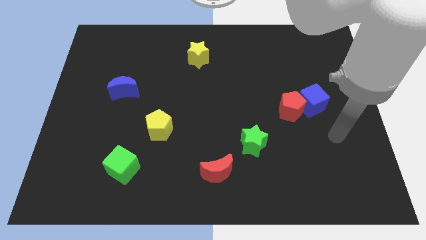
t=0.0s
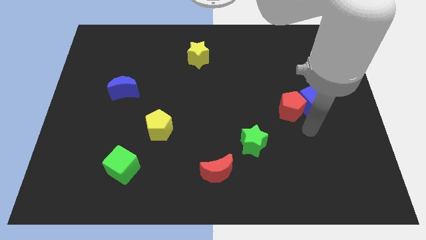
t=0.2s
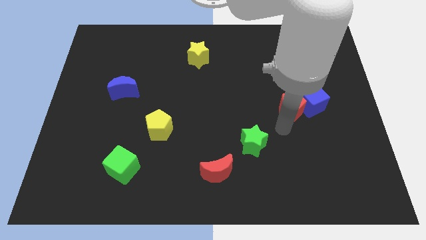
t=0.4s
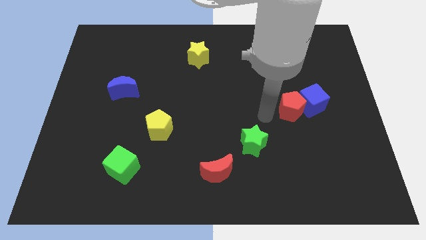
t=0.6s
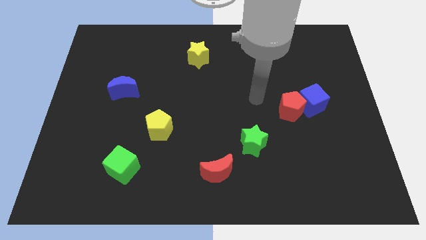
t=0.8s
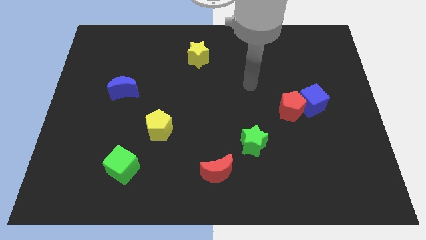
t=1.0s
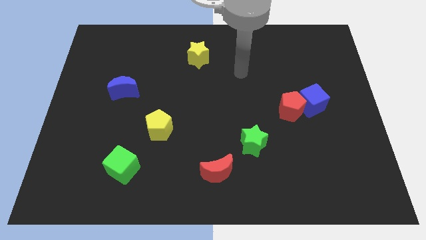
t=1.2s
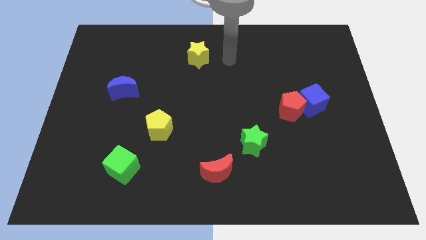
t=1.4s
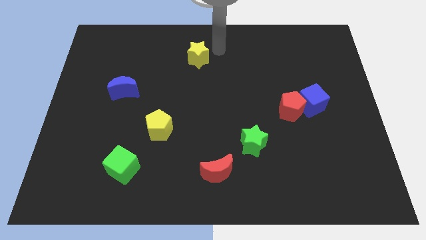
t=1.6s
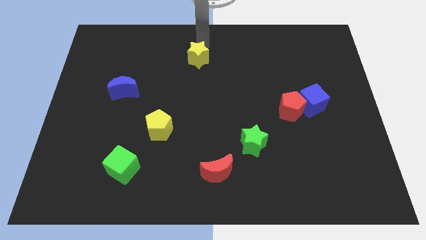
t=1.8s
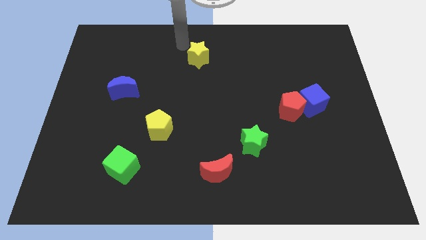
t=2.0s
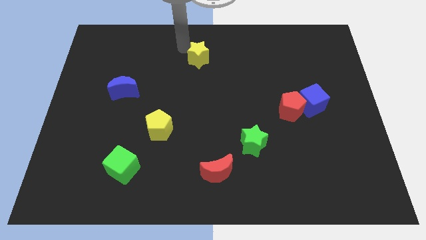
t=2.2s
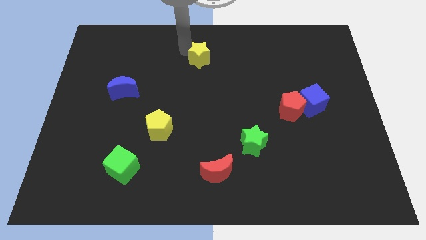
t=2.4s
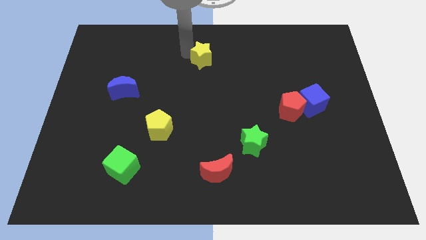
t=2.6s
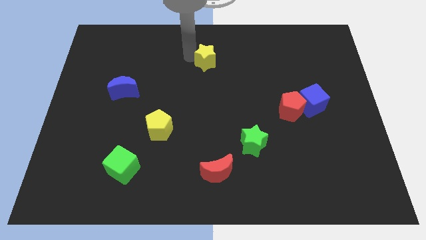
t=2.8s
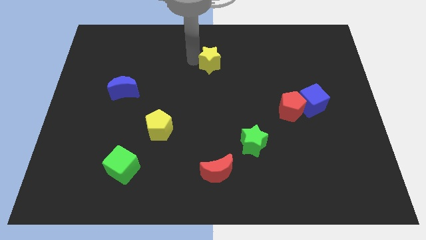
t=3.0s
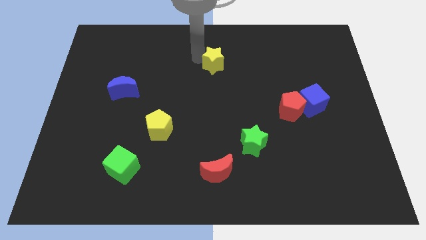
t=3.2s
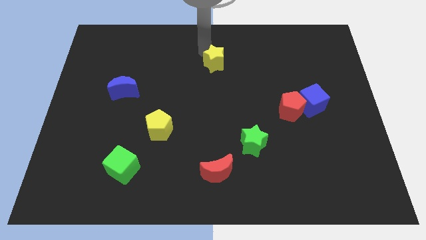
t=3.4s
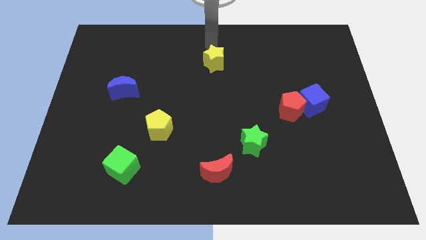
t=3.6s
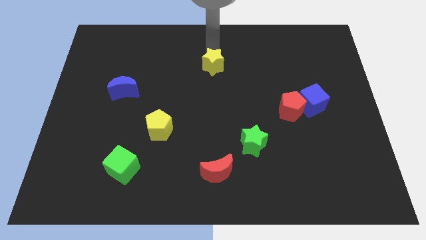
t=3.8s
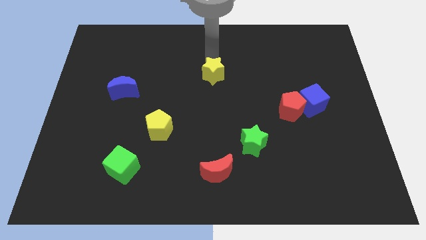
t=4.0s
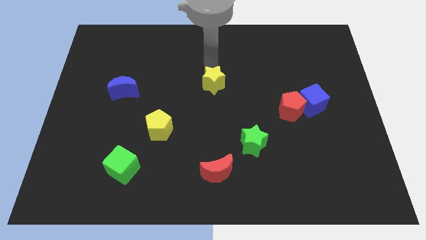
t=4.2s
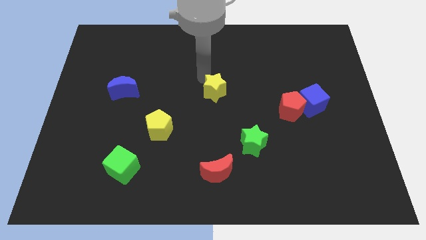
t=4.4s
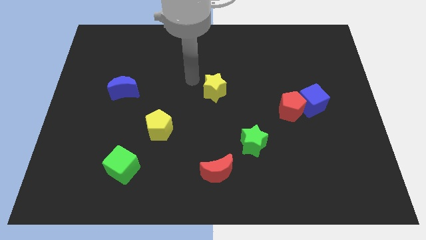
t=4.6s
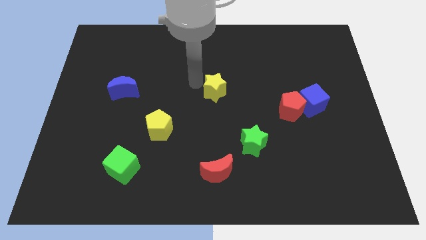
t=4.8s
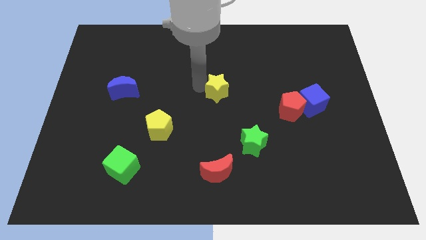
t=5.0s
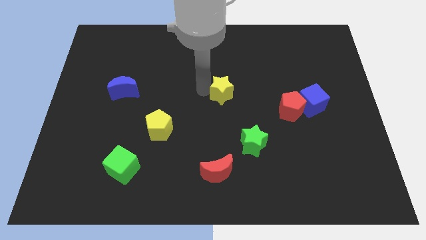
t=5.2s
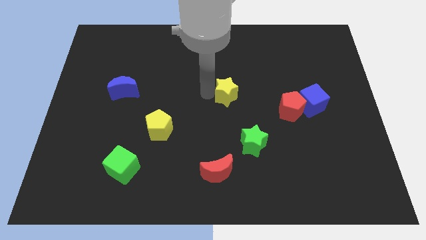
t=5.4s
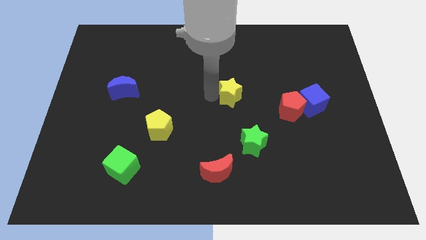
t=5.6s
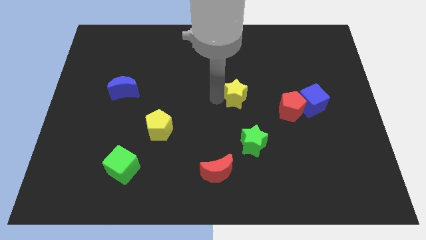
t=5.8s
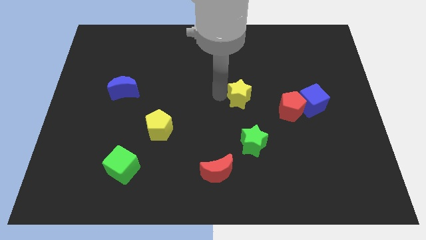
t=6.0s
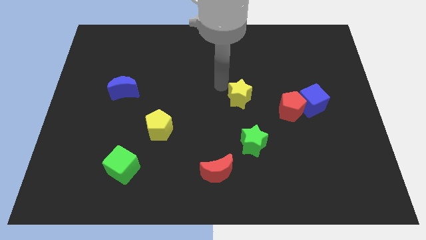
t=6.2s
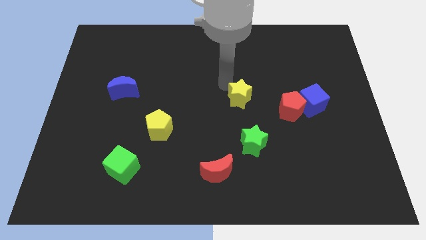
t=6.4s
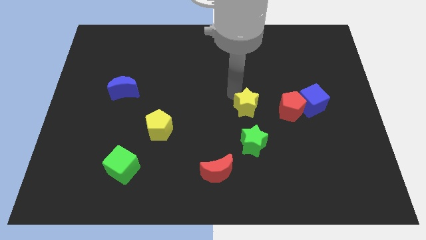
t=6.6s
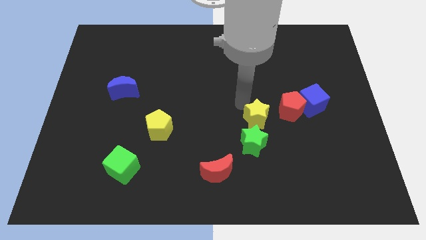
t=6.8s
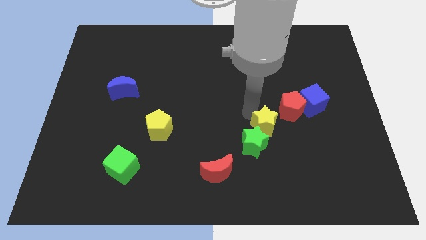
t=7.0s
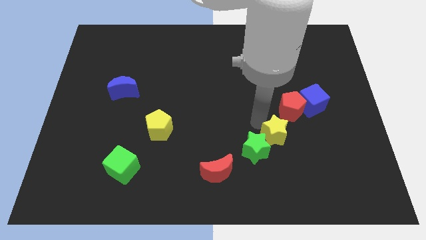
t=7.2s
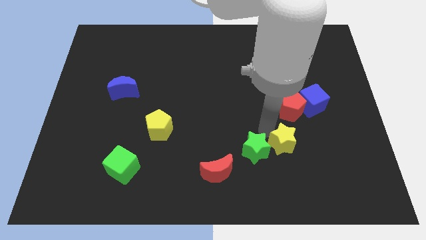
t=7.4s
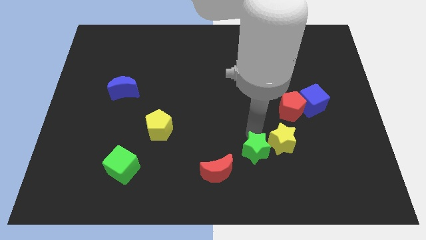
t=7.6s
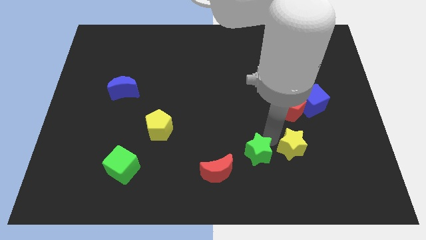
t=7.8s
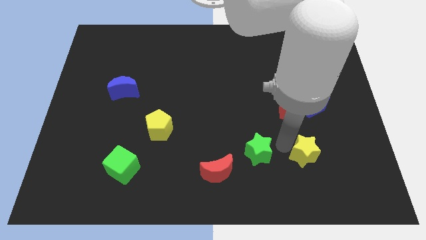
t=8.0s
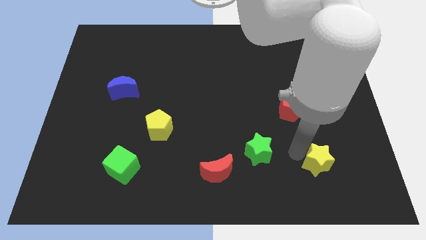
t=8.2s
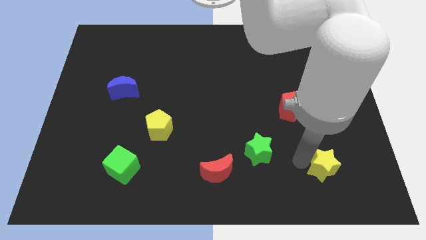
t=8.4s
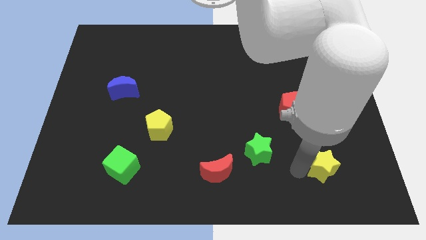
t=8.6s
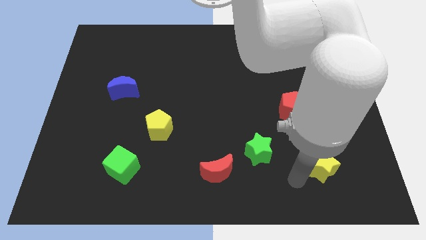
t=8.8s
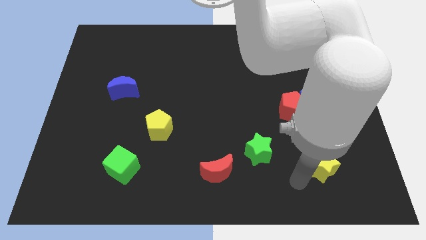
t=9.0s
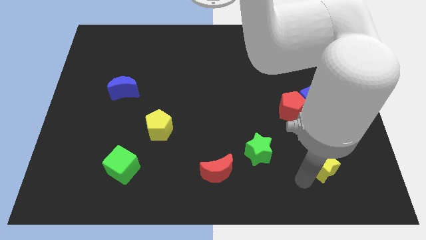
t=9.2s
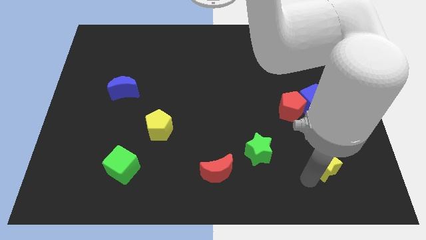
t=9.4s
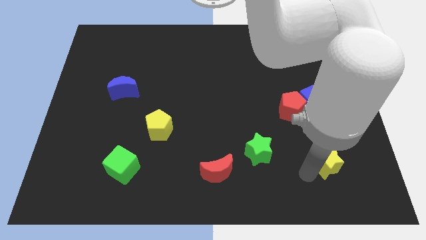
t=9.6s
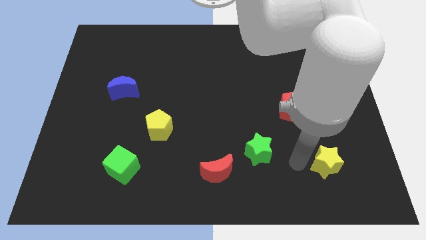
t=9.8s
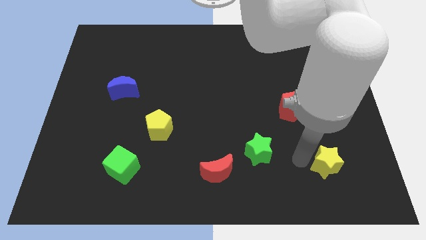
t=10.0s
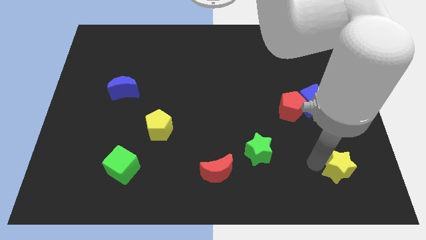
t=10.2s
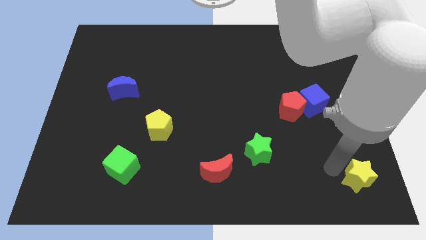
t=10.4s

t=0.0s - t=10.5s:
push the yellow star to the bottom right corner
